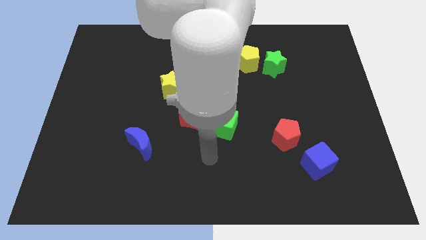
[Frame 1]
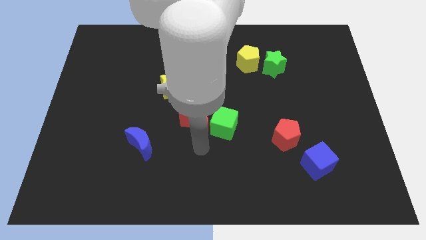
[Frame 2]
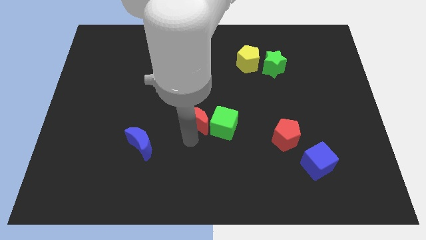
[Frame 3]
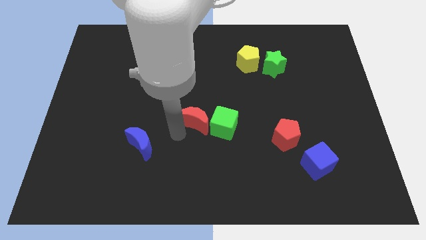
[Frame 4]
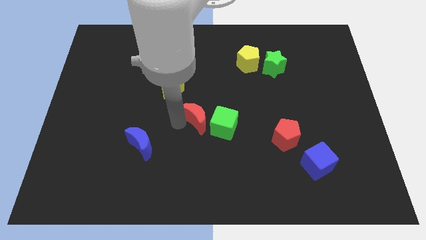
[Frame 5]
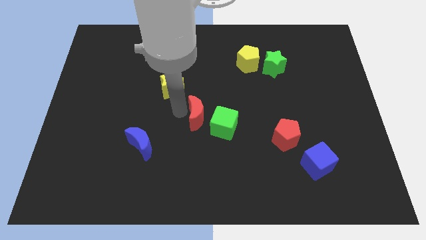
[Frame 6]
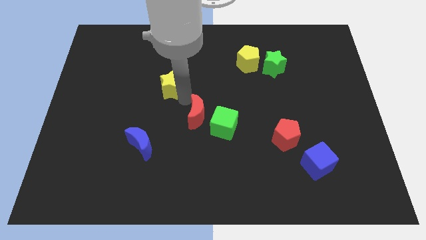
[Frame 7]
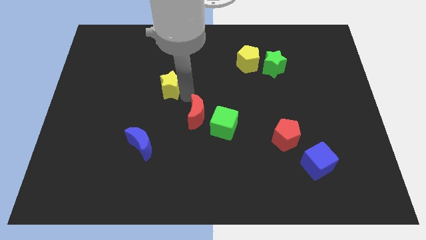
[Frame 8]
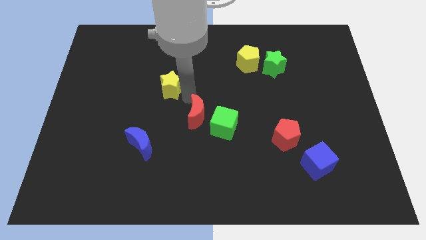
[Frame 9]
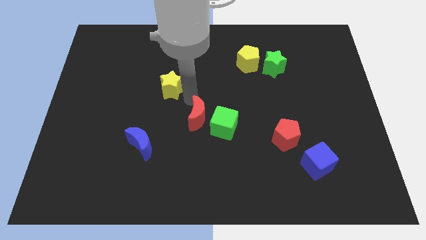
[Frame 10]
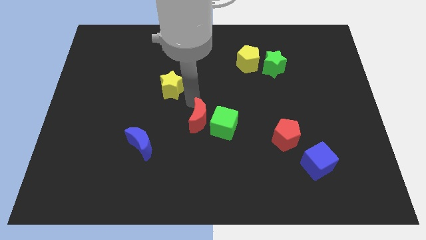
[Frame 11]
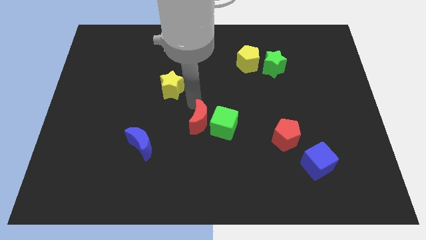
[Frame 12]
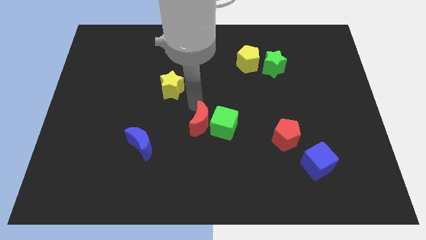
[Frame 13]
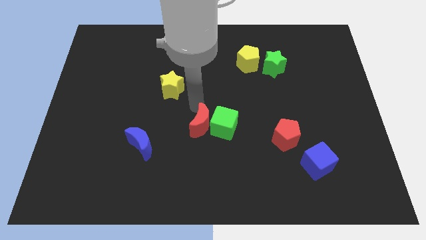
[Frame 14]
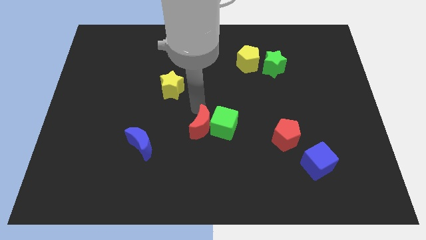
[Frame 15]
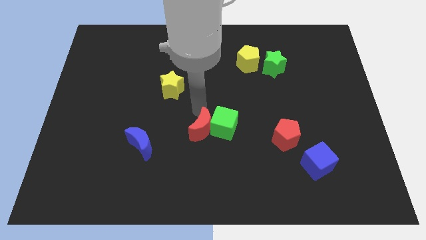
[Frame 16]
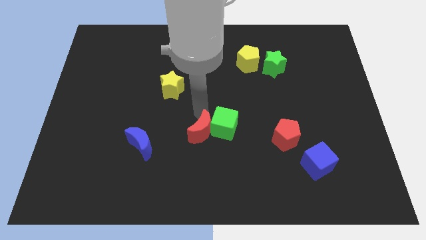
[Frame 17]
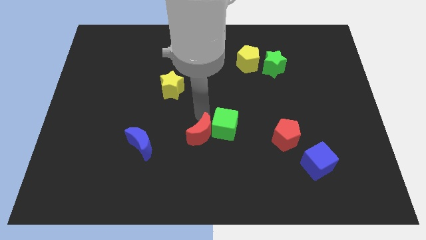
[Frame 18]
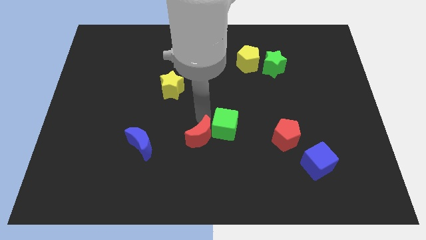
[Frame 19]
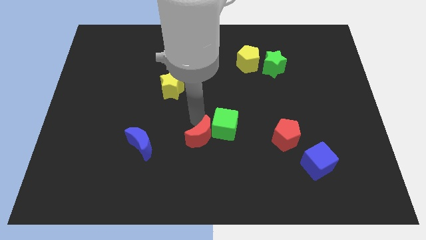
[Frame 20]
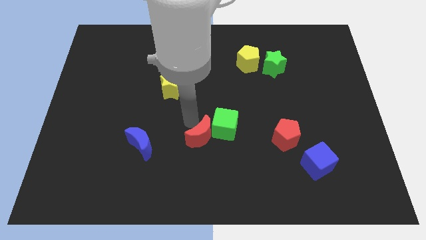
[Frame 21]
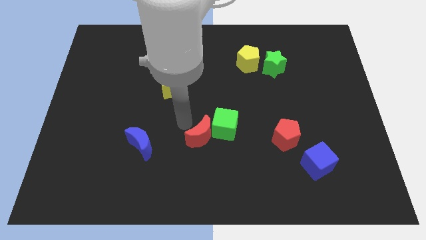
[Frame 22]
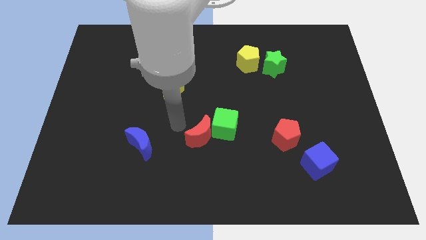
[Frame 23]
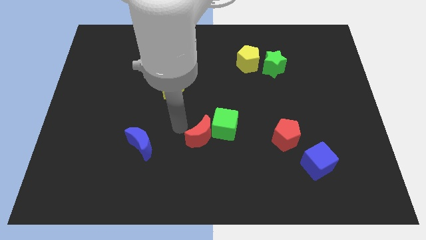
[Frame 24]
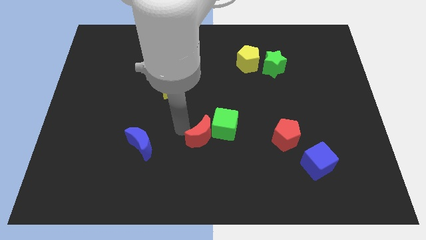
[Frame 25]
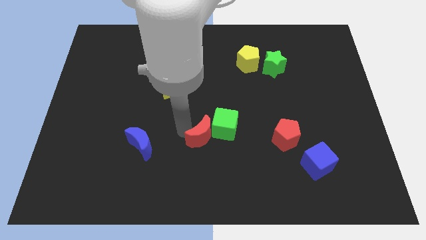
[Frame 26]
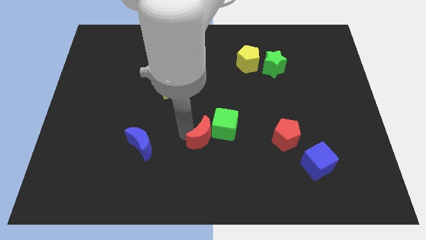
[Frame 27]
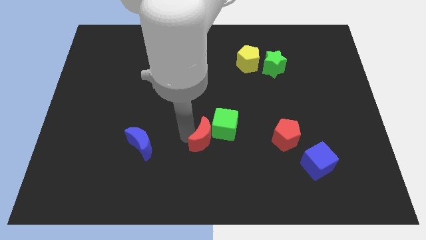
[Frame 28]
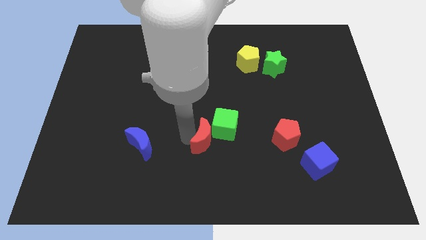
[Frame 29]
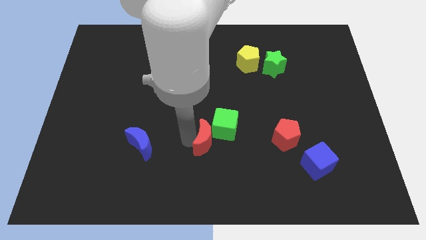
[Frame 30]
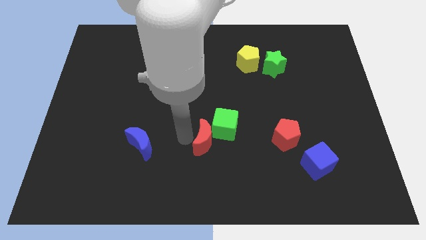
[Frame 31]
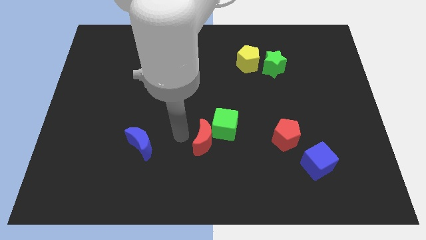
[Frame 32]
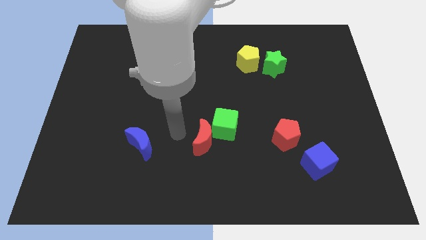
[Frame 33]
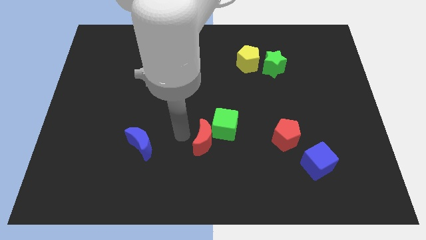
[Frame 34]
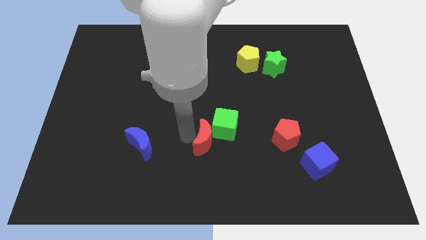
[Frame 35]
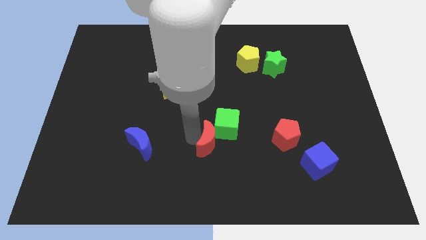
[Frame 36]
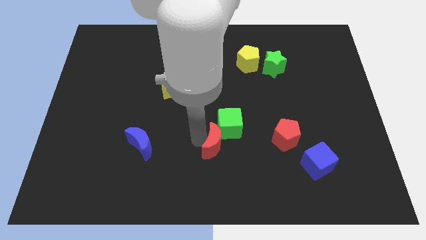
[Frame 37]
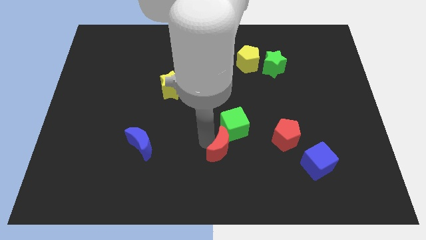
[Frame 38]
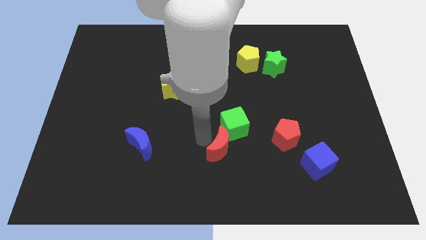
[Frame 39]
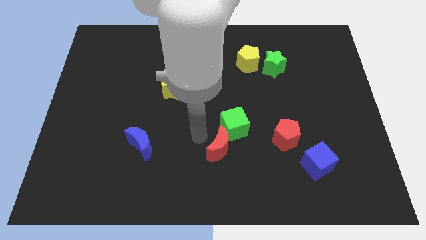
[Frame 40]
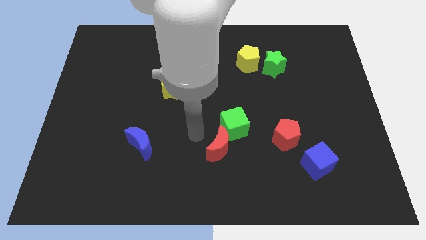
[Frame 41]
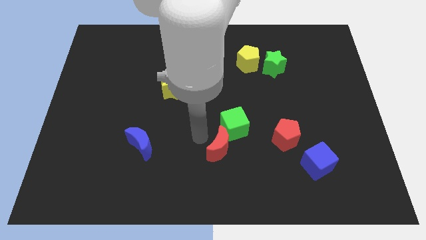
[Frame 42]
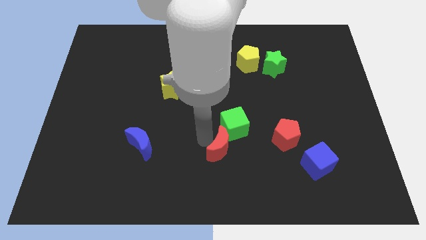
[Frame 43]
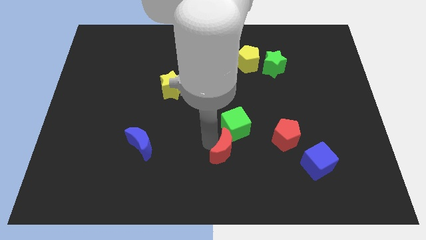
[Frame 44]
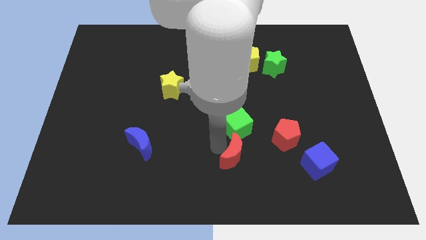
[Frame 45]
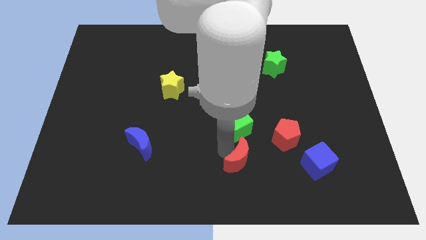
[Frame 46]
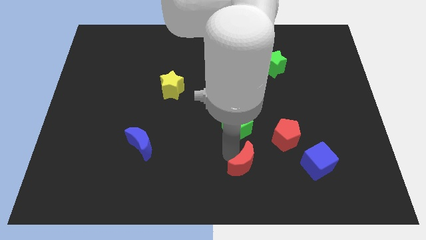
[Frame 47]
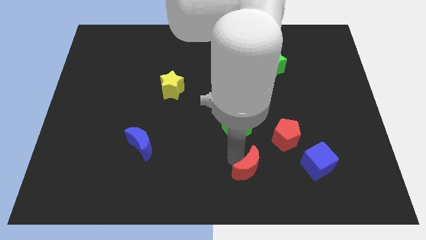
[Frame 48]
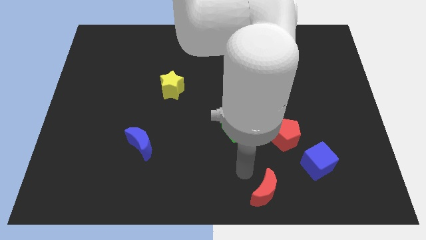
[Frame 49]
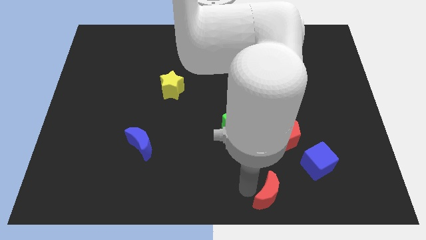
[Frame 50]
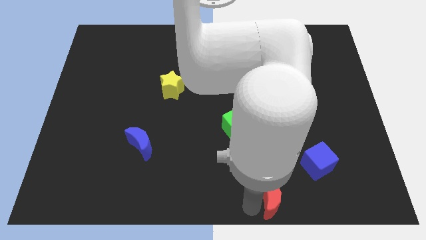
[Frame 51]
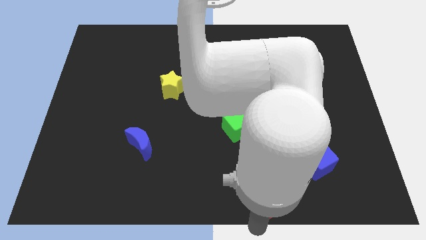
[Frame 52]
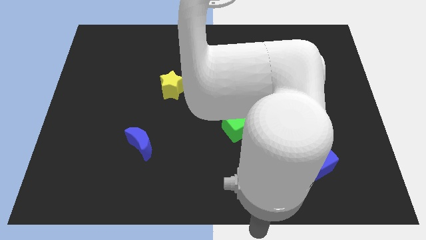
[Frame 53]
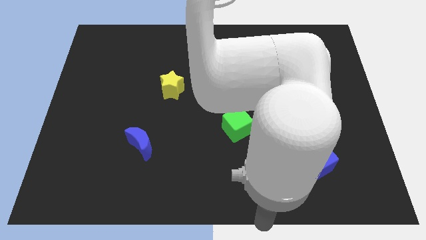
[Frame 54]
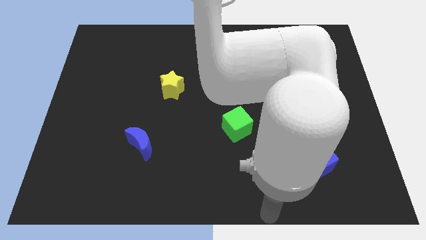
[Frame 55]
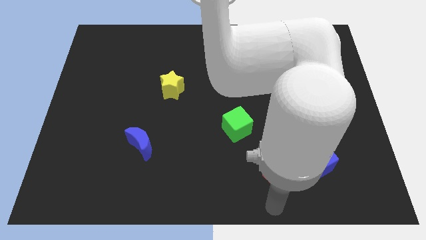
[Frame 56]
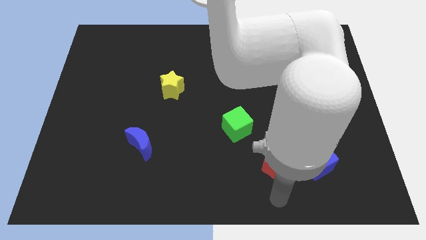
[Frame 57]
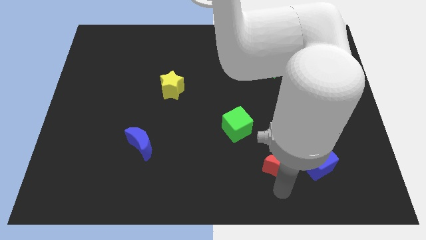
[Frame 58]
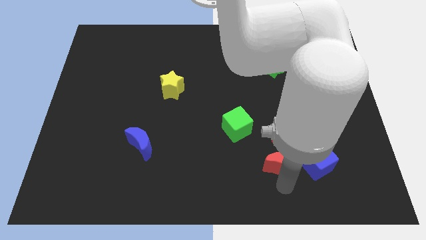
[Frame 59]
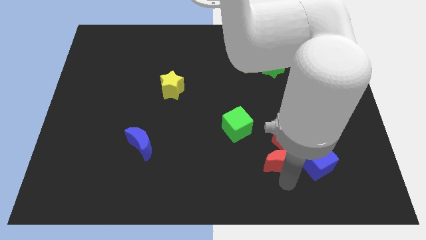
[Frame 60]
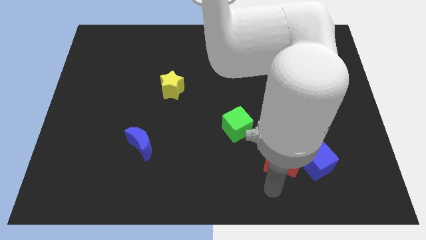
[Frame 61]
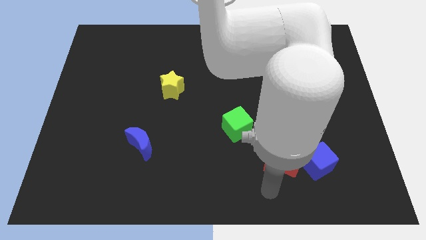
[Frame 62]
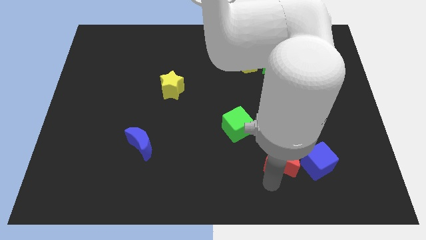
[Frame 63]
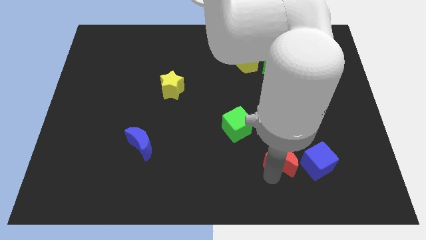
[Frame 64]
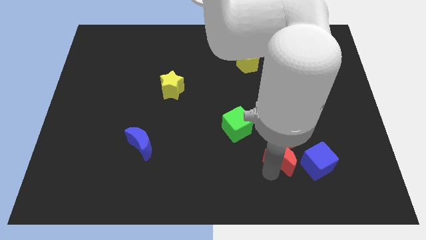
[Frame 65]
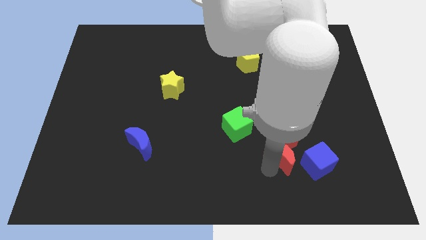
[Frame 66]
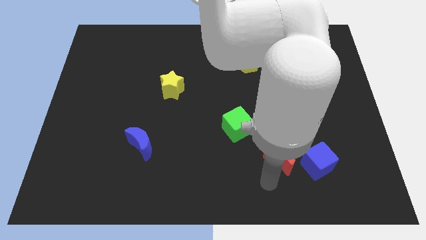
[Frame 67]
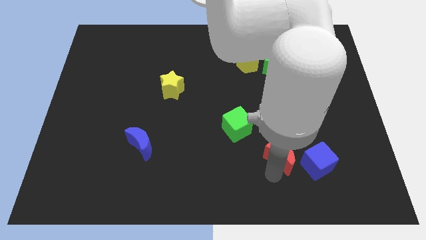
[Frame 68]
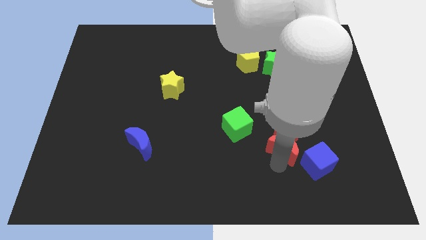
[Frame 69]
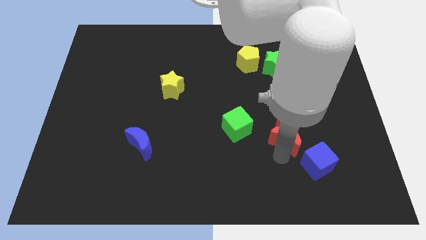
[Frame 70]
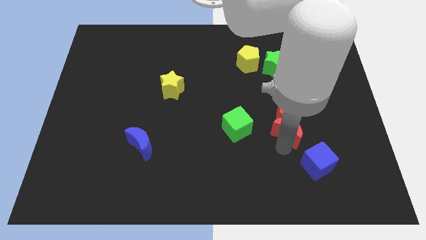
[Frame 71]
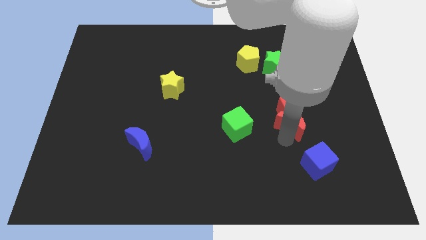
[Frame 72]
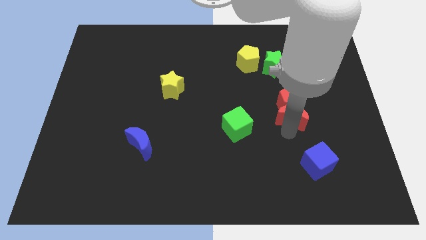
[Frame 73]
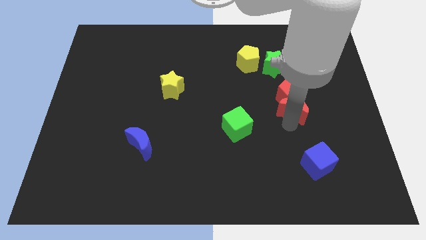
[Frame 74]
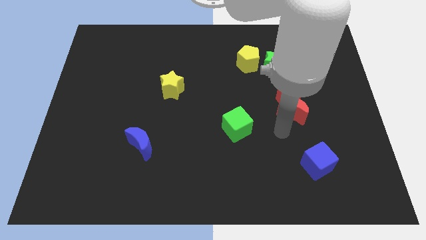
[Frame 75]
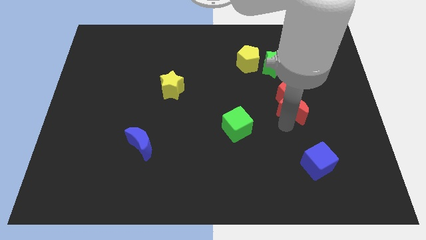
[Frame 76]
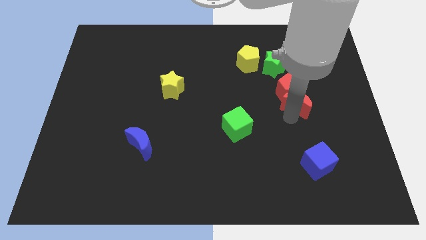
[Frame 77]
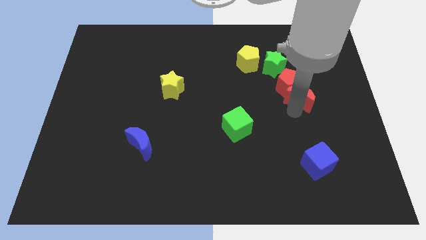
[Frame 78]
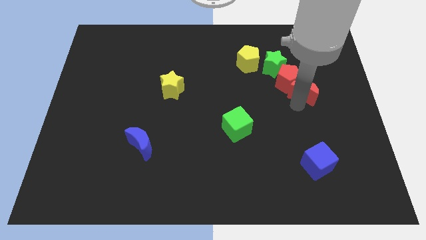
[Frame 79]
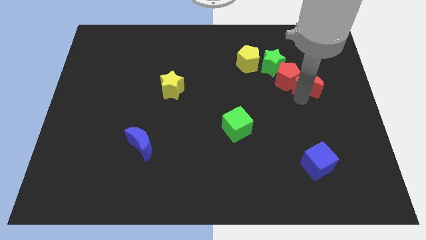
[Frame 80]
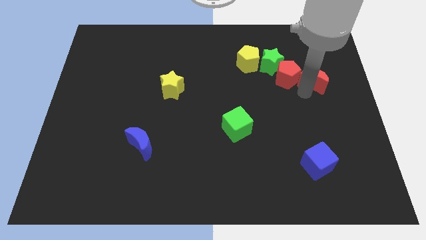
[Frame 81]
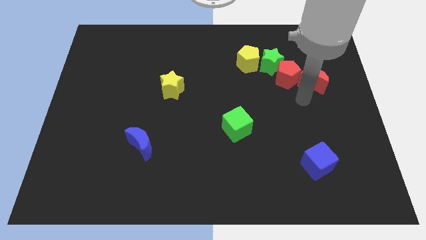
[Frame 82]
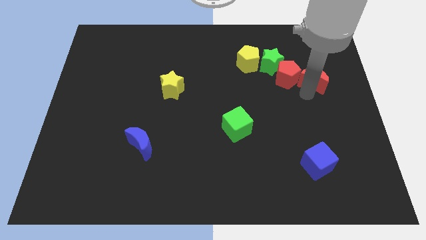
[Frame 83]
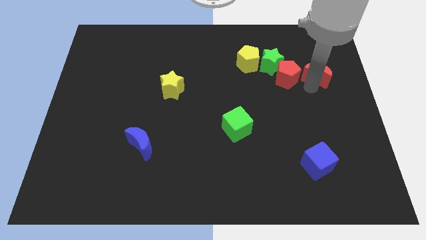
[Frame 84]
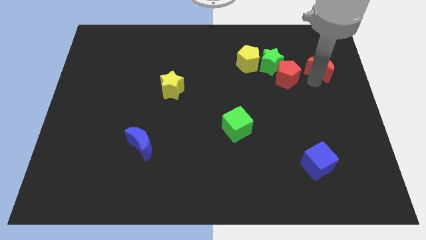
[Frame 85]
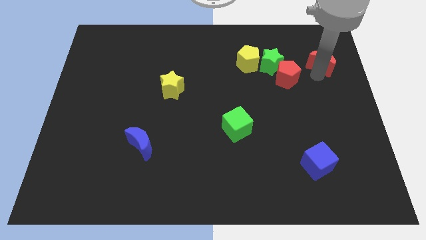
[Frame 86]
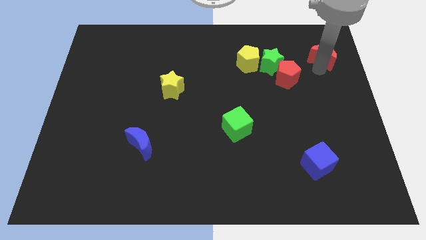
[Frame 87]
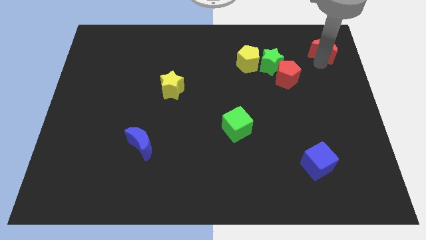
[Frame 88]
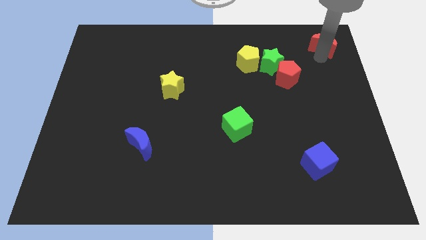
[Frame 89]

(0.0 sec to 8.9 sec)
push the red moon to the top right corner
